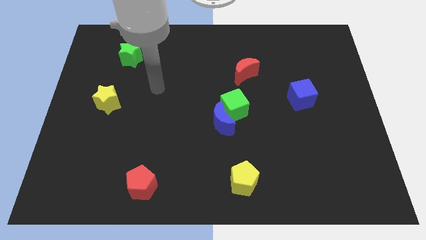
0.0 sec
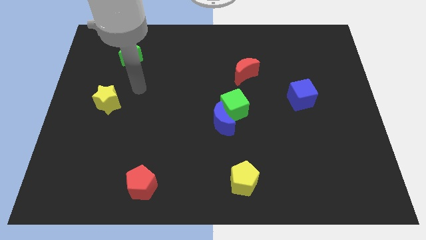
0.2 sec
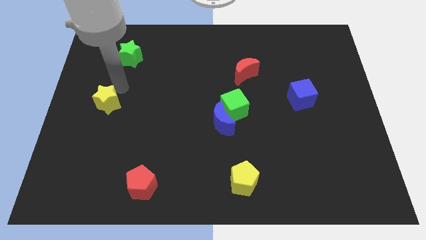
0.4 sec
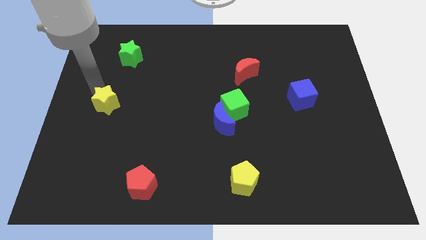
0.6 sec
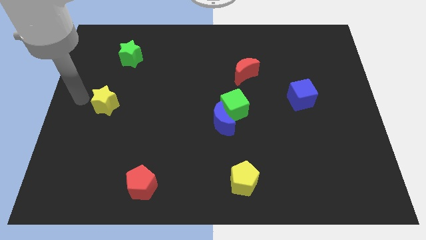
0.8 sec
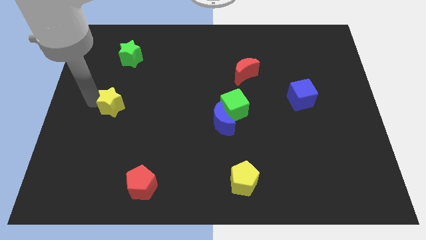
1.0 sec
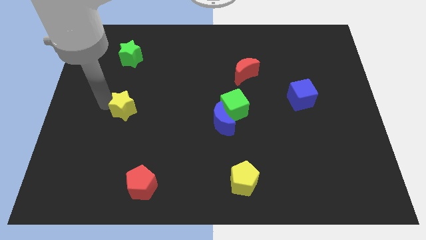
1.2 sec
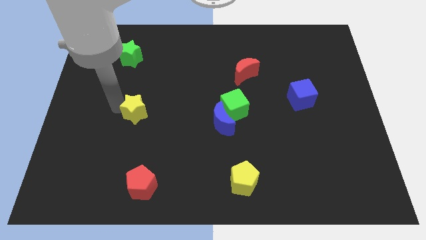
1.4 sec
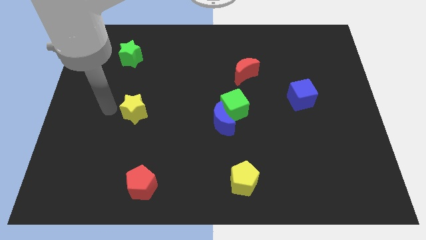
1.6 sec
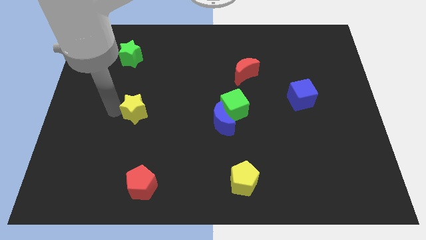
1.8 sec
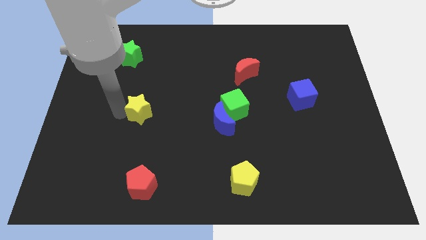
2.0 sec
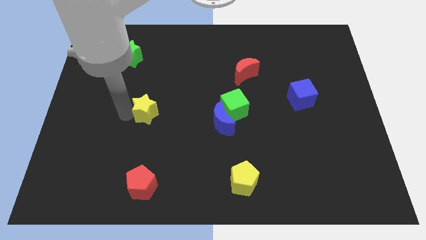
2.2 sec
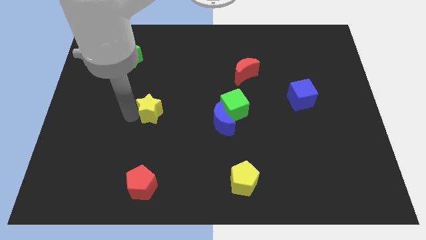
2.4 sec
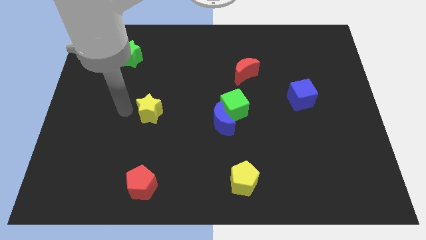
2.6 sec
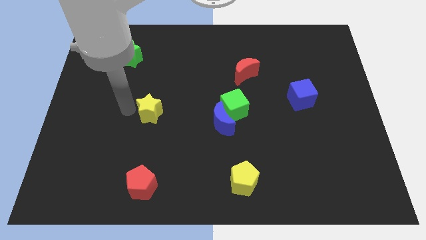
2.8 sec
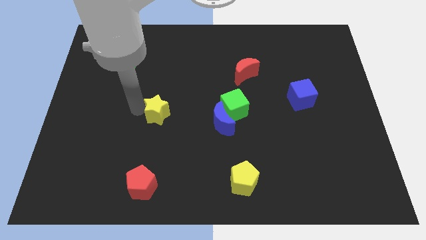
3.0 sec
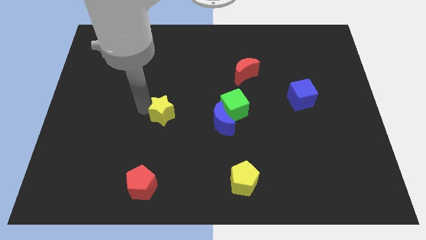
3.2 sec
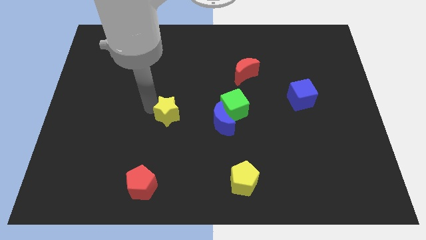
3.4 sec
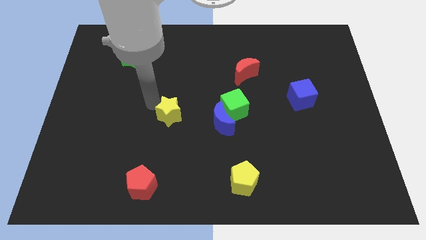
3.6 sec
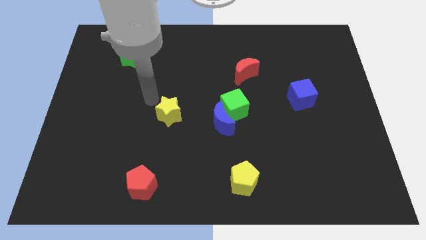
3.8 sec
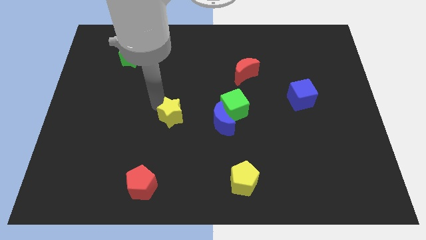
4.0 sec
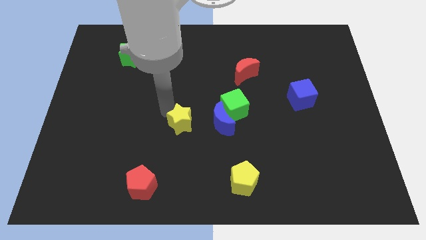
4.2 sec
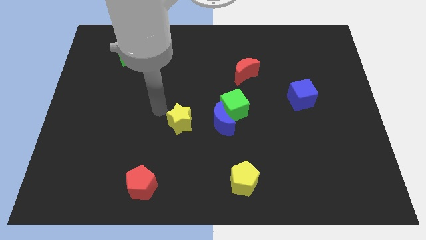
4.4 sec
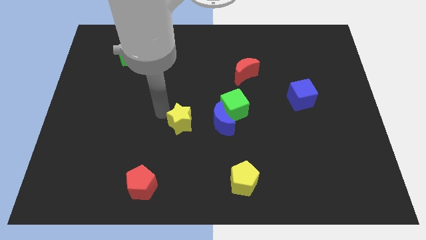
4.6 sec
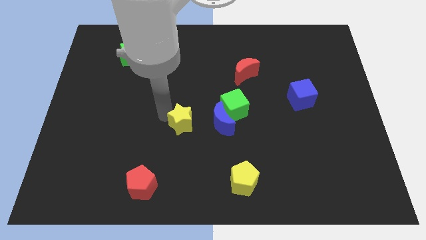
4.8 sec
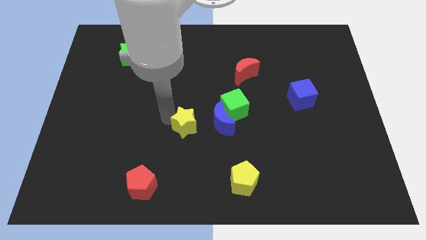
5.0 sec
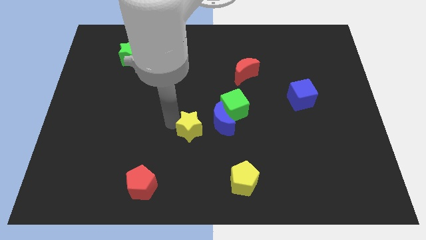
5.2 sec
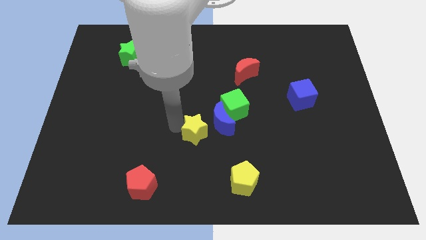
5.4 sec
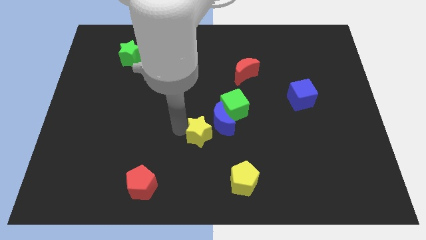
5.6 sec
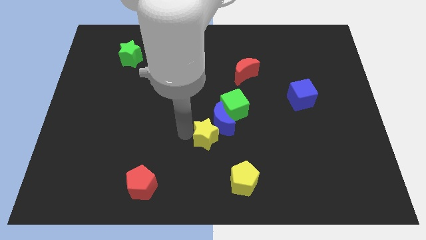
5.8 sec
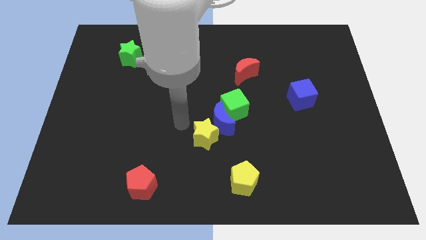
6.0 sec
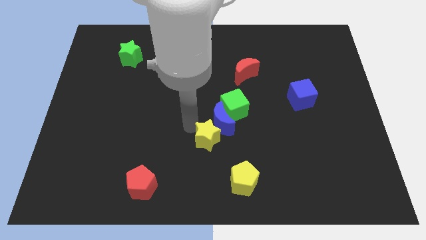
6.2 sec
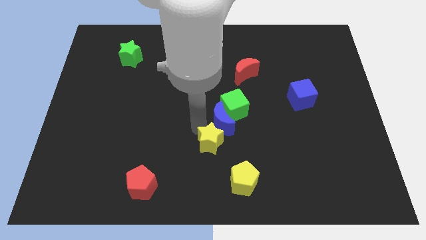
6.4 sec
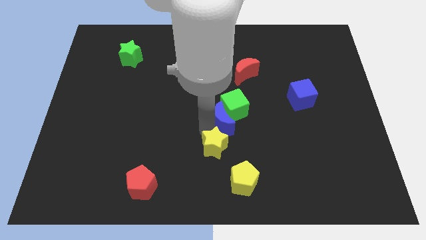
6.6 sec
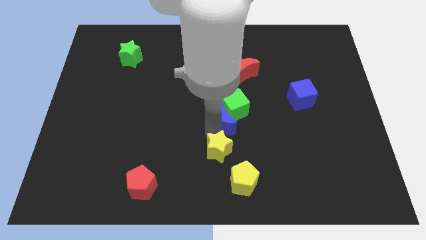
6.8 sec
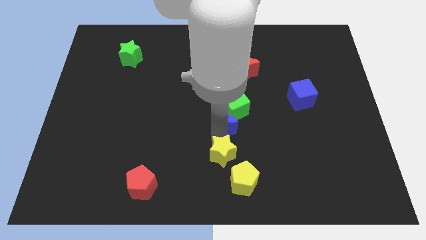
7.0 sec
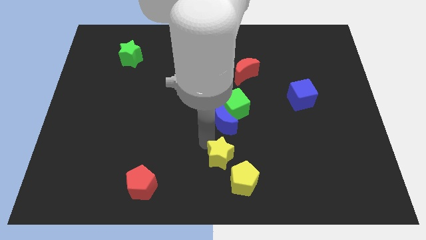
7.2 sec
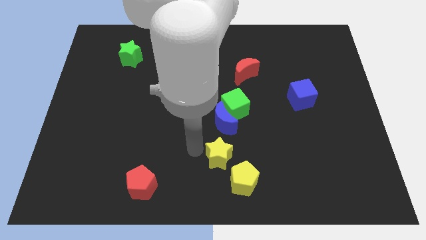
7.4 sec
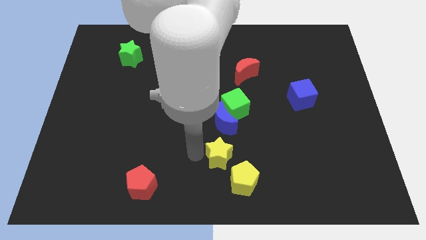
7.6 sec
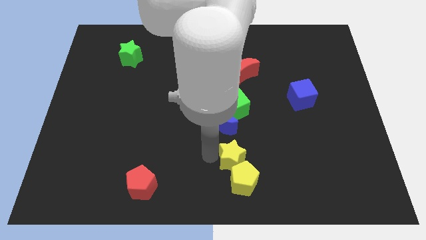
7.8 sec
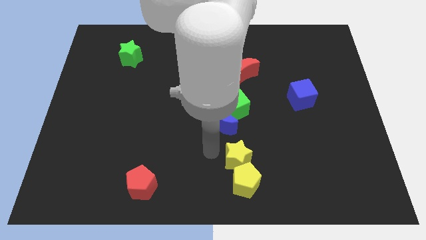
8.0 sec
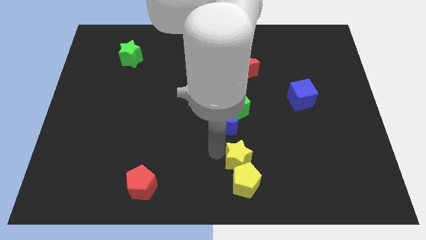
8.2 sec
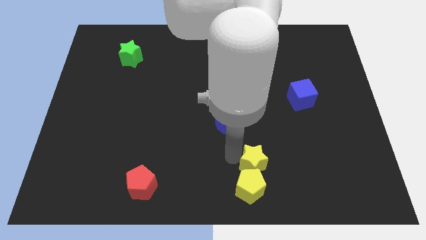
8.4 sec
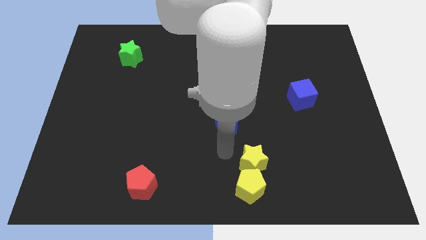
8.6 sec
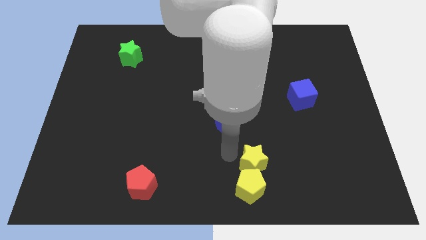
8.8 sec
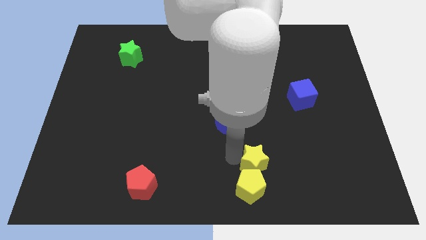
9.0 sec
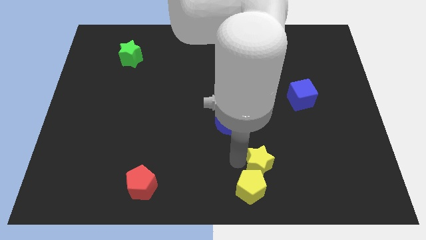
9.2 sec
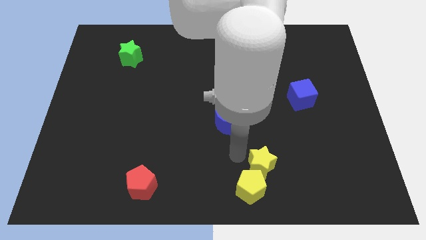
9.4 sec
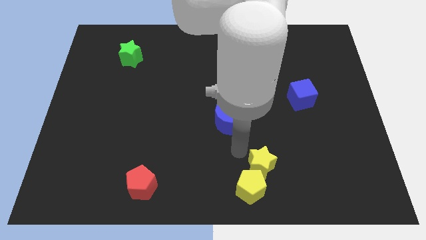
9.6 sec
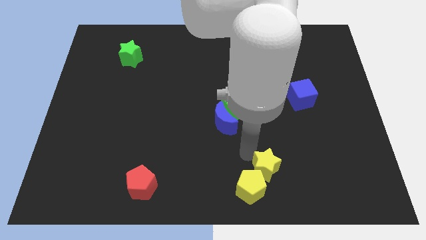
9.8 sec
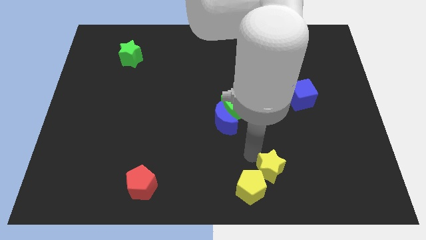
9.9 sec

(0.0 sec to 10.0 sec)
push the yellow star just right of the yellow pentagon

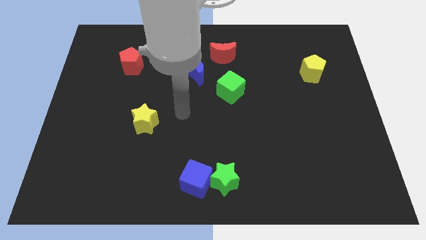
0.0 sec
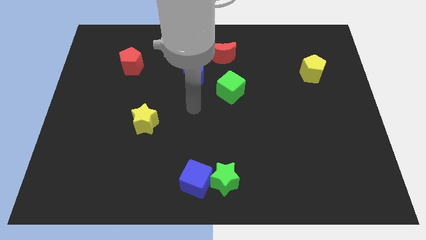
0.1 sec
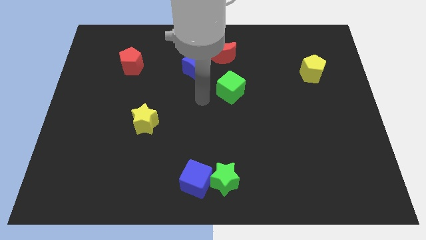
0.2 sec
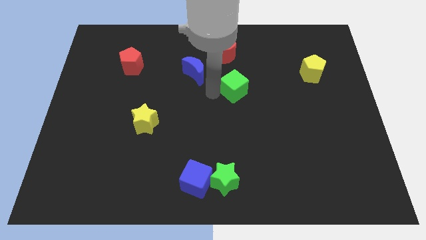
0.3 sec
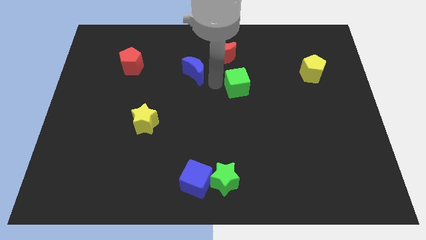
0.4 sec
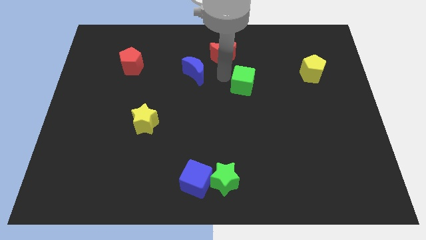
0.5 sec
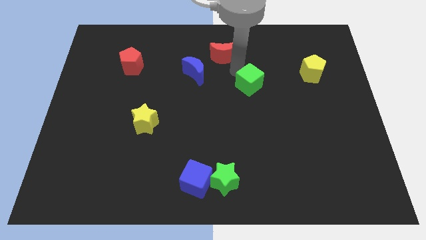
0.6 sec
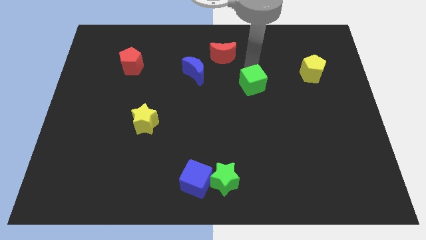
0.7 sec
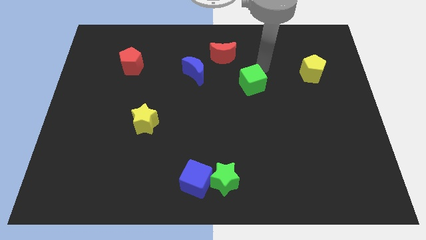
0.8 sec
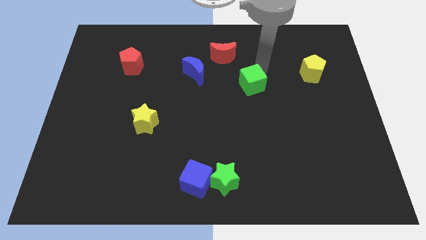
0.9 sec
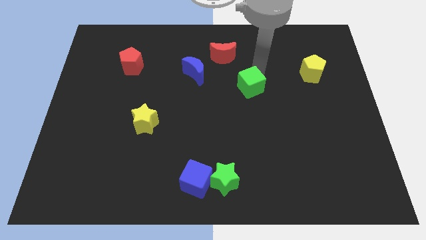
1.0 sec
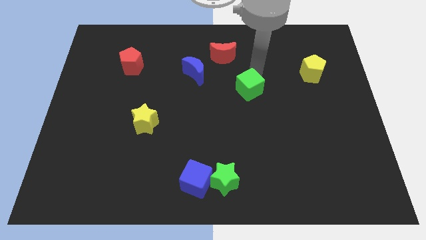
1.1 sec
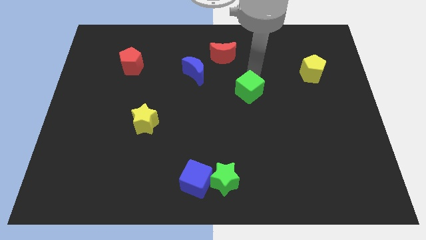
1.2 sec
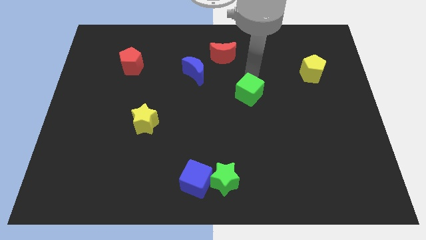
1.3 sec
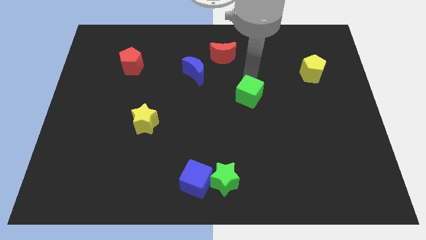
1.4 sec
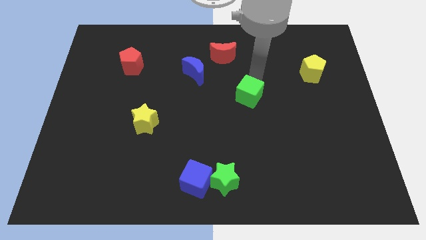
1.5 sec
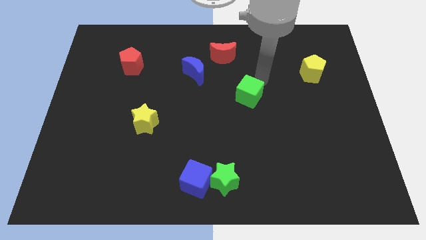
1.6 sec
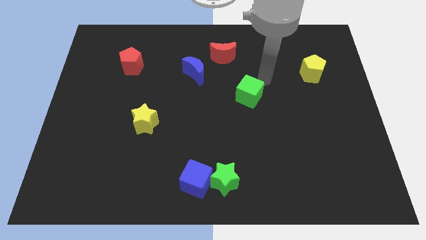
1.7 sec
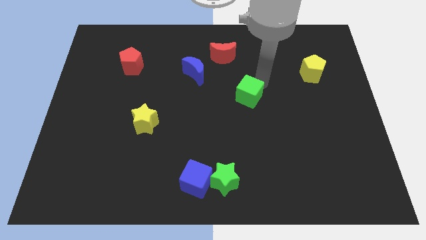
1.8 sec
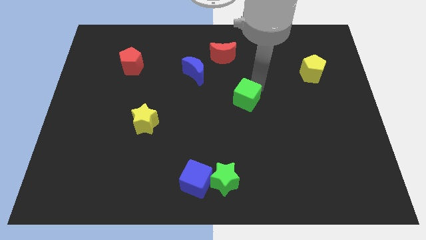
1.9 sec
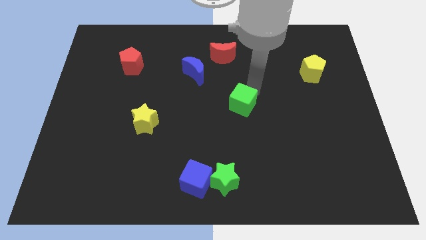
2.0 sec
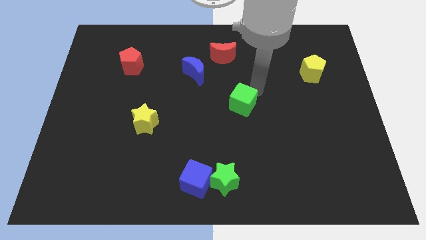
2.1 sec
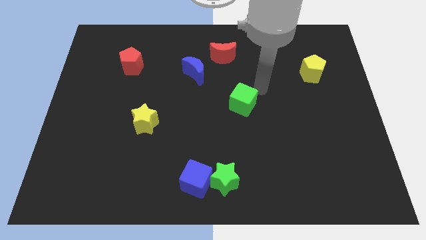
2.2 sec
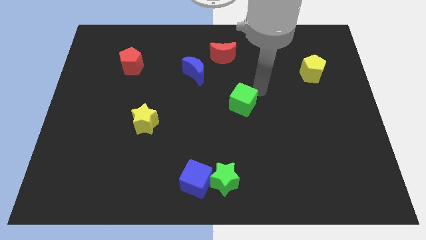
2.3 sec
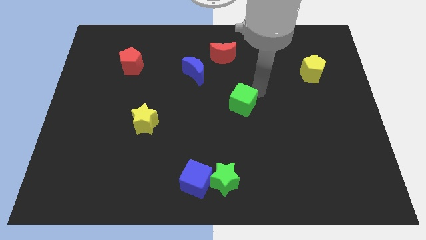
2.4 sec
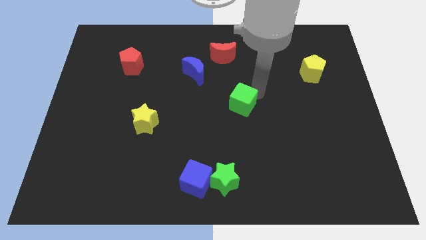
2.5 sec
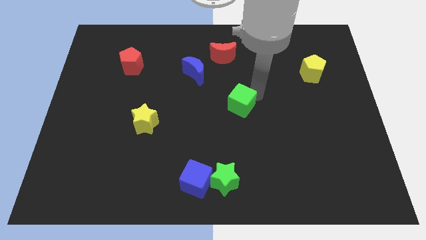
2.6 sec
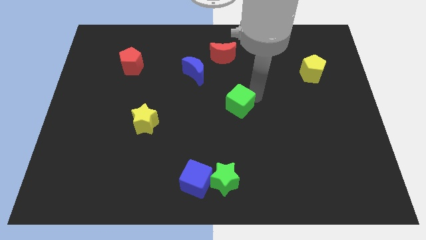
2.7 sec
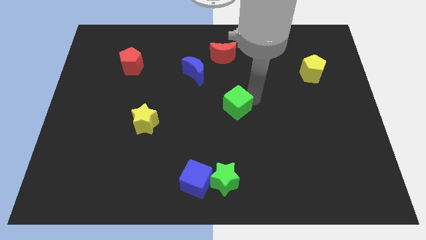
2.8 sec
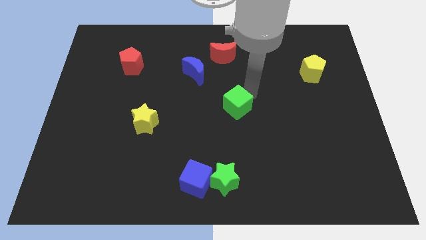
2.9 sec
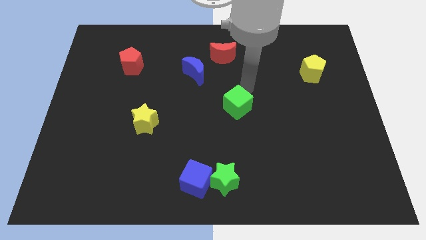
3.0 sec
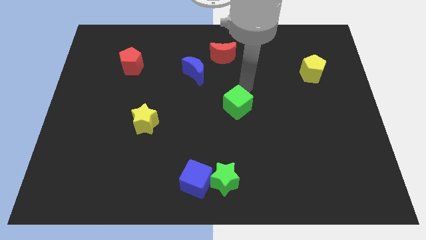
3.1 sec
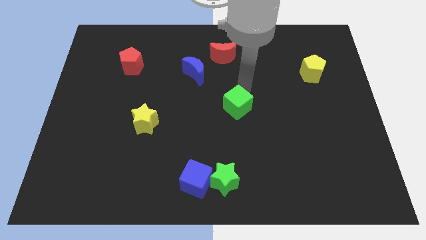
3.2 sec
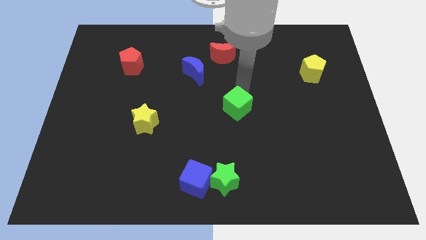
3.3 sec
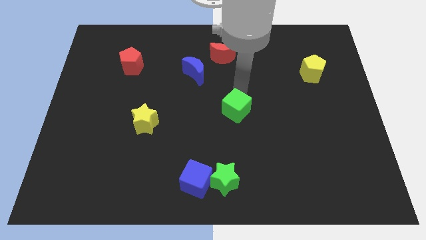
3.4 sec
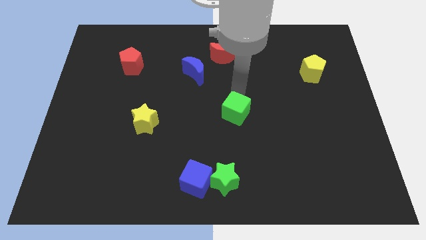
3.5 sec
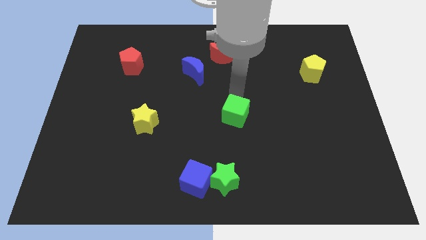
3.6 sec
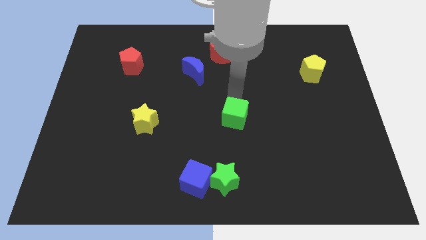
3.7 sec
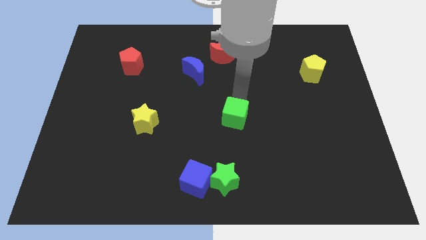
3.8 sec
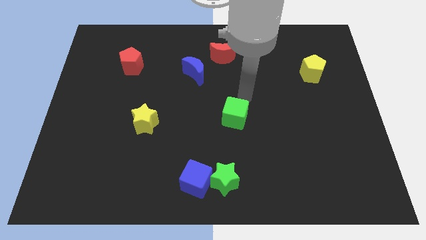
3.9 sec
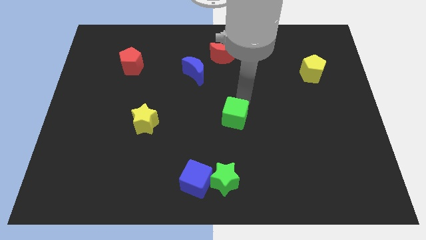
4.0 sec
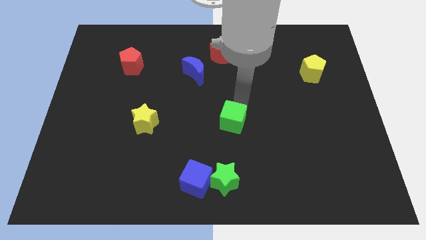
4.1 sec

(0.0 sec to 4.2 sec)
move the green cube to the top of the green star
